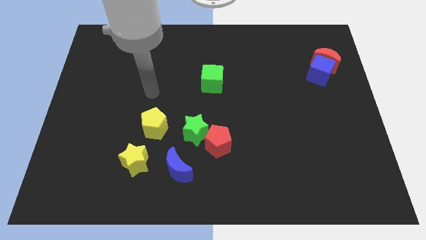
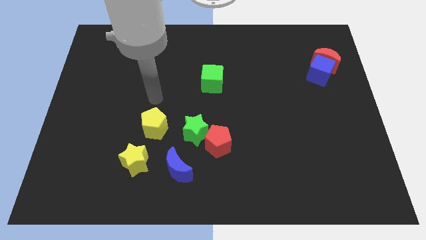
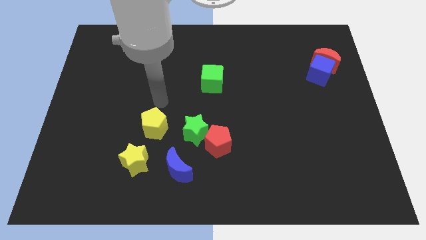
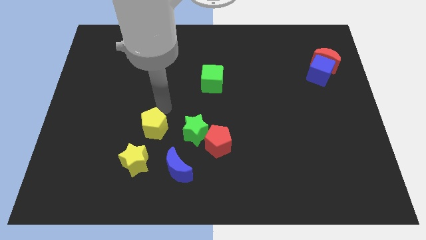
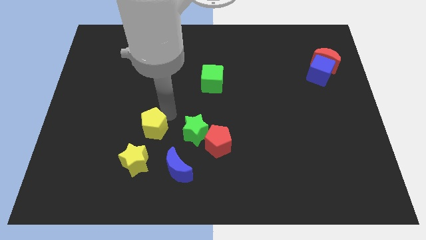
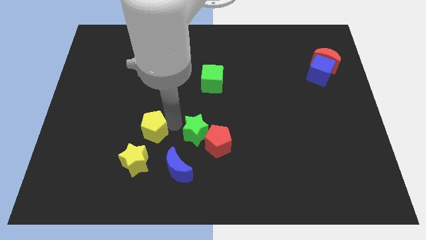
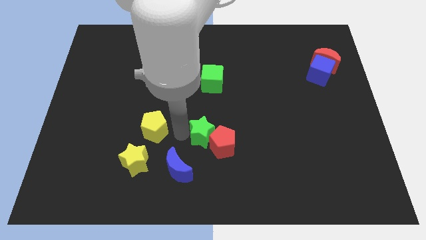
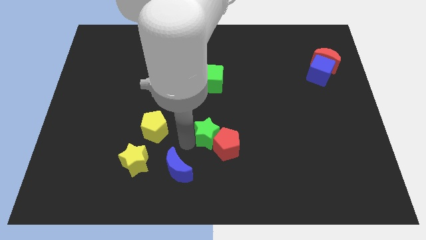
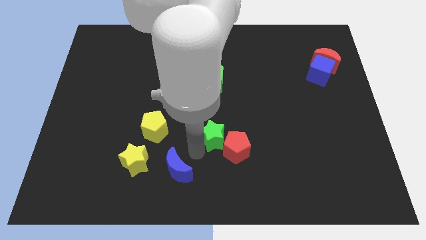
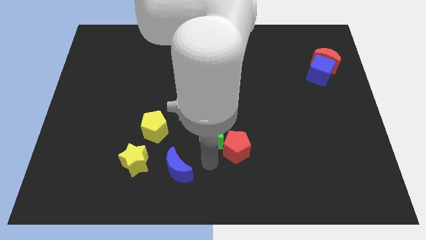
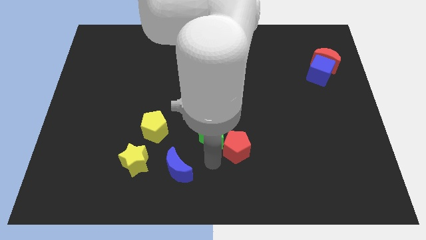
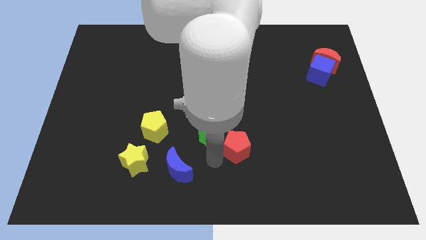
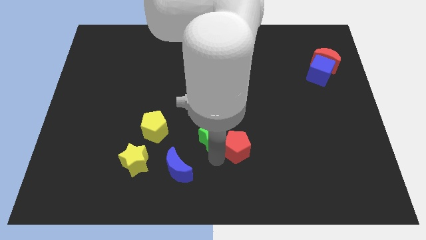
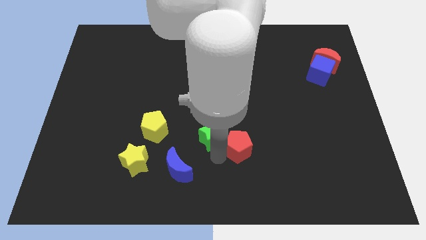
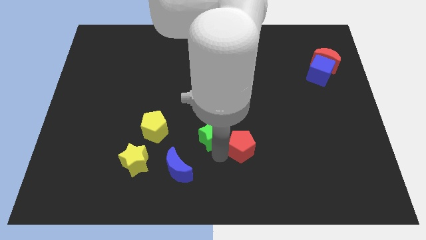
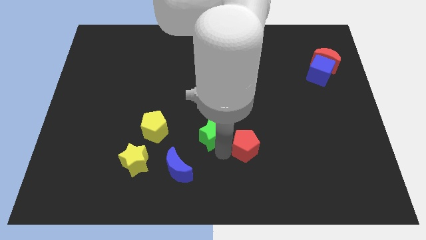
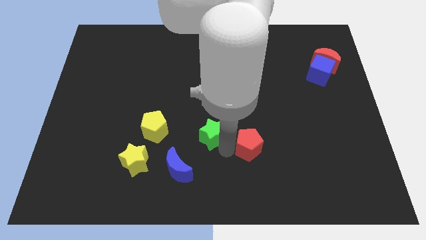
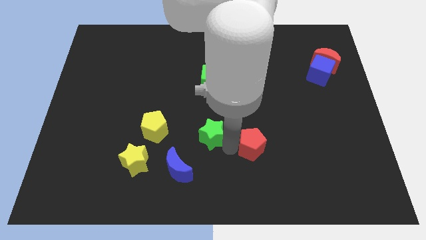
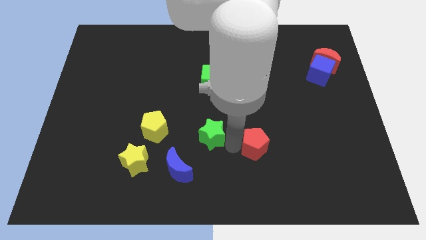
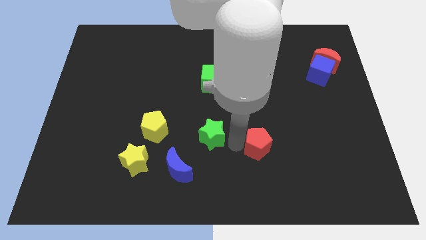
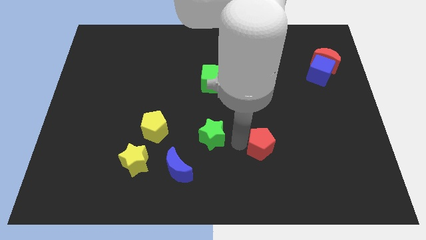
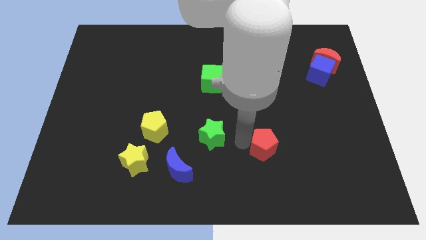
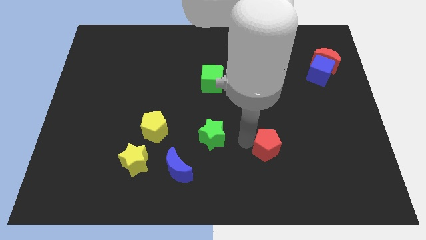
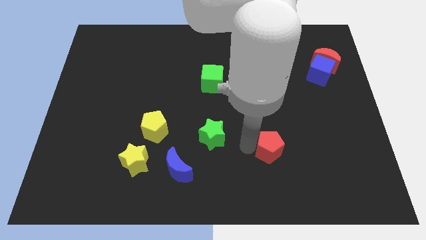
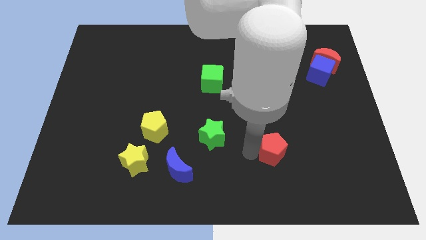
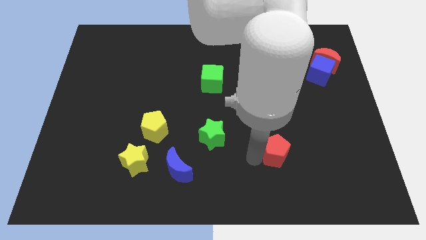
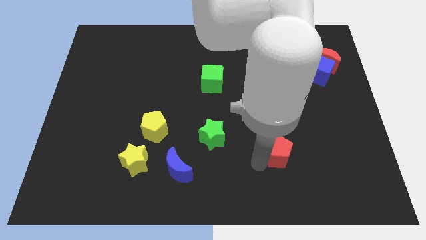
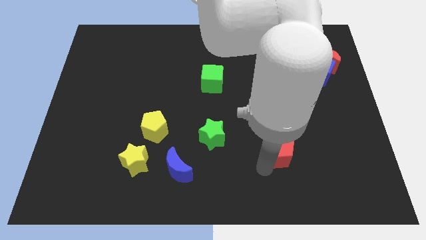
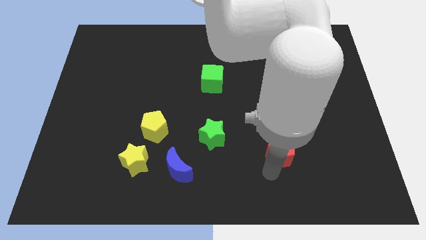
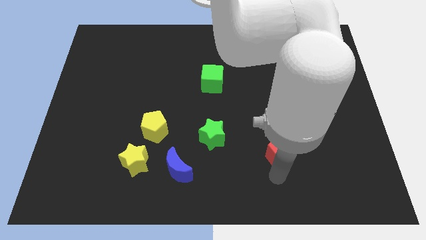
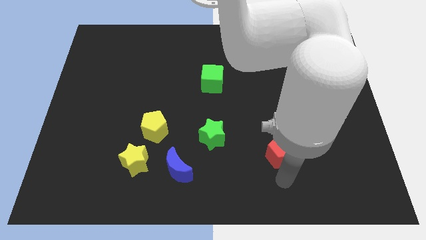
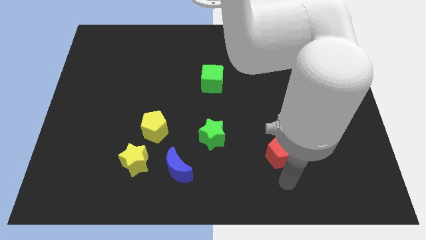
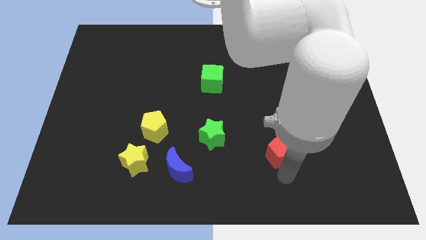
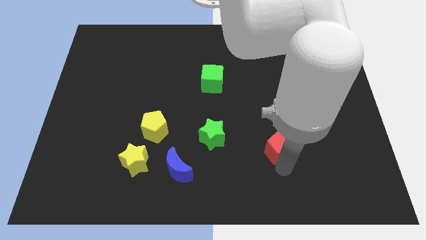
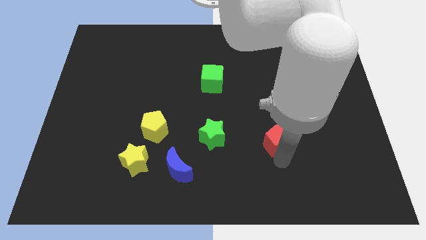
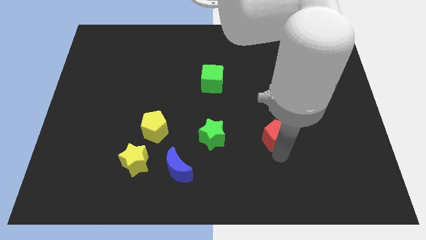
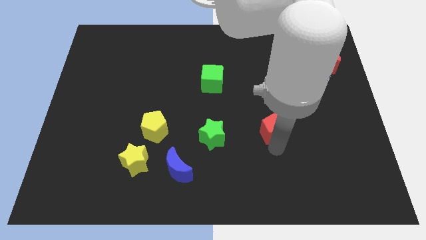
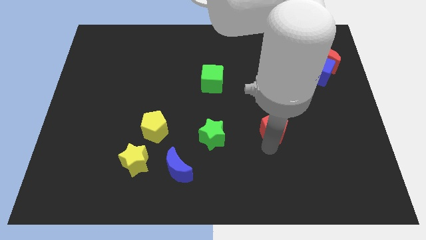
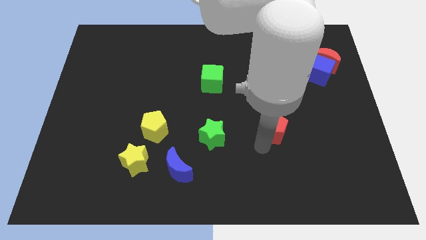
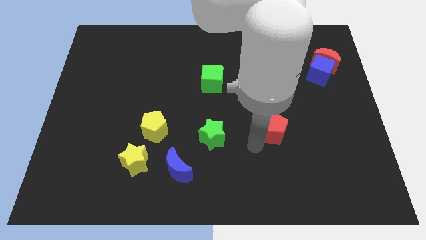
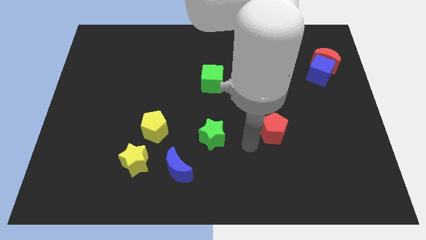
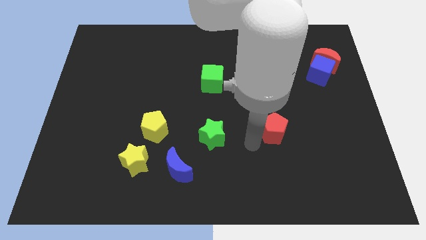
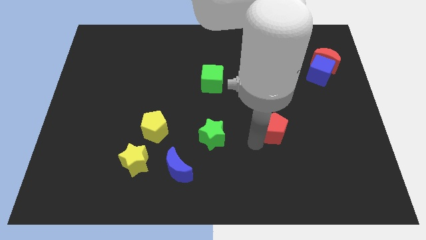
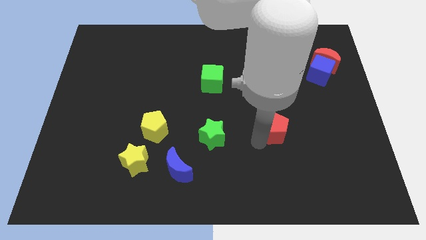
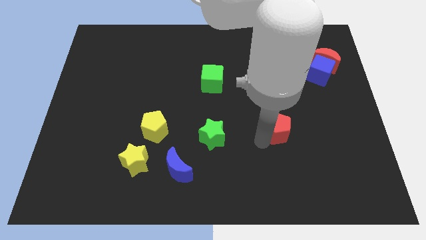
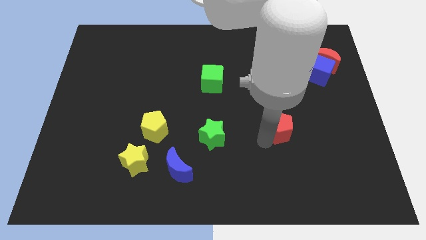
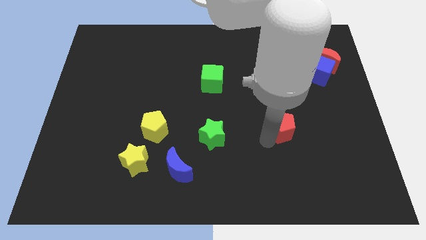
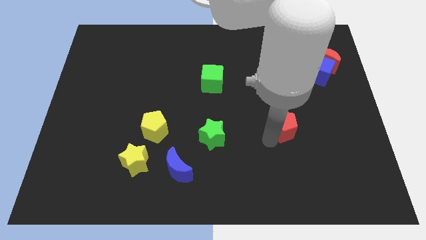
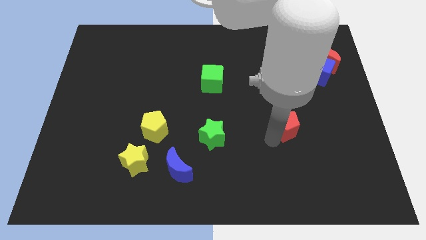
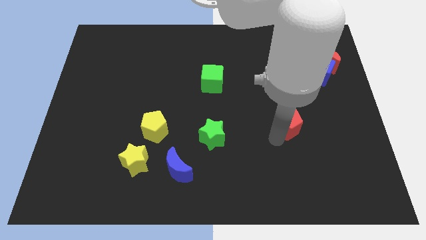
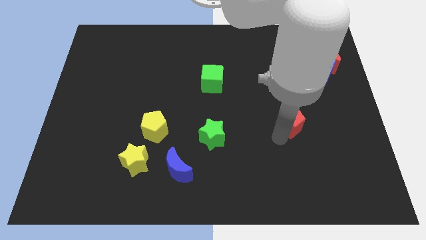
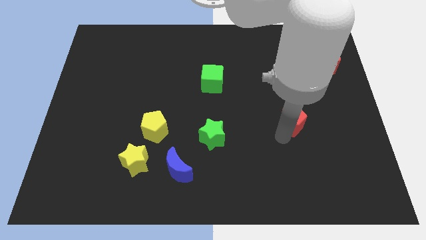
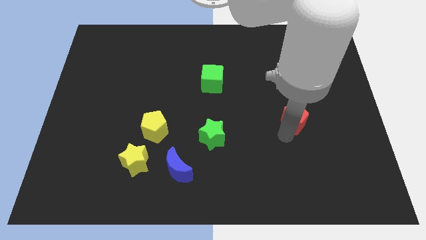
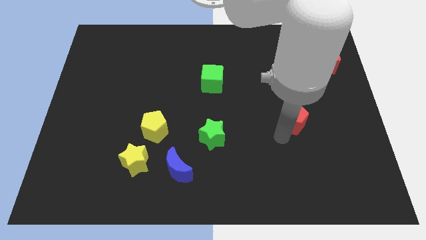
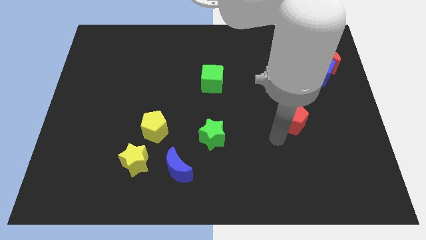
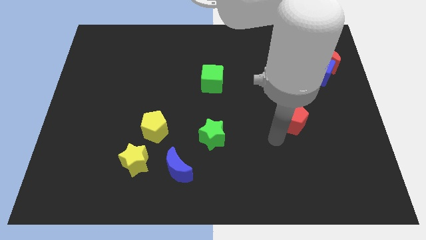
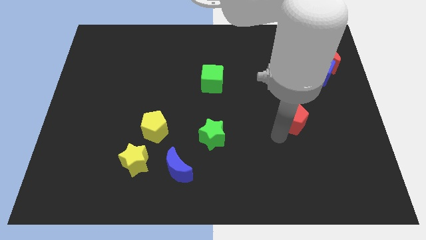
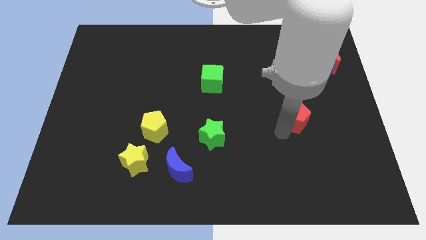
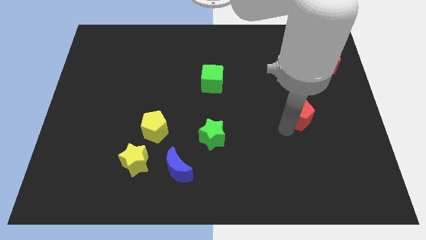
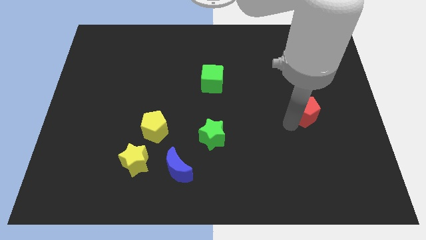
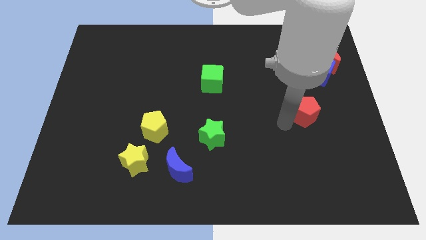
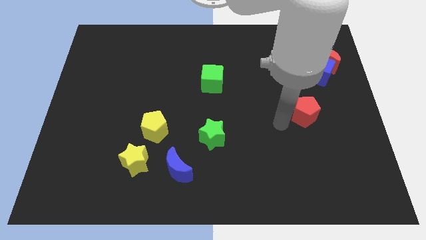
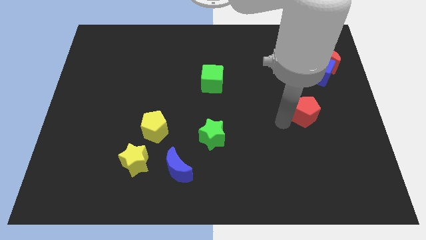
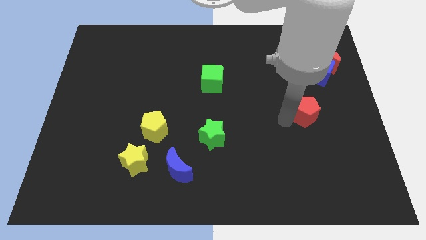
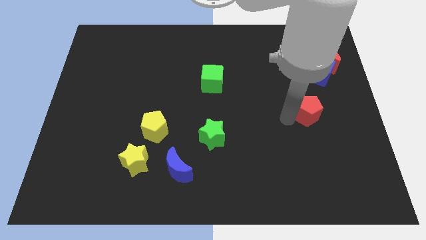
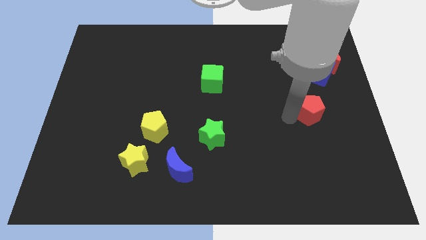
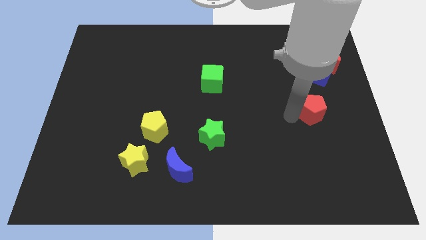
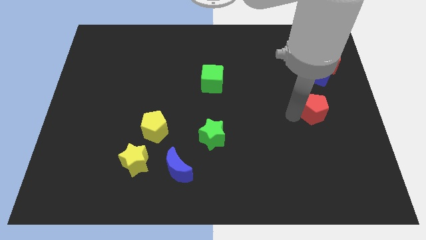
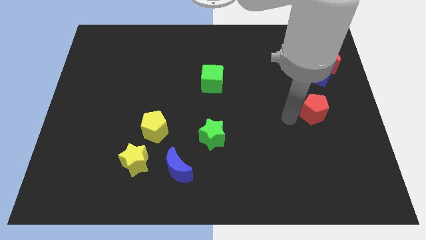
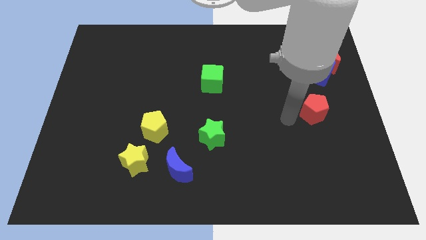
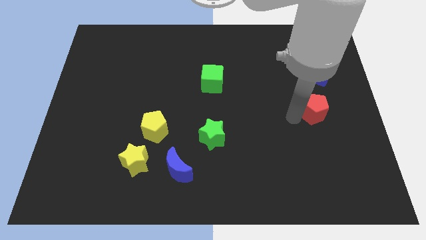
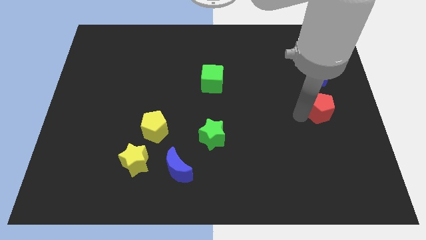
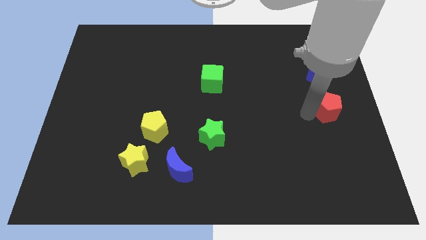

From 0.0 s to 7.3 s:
push the red pentagon to the center right
